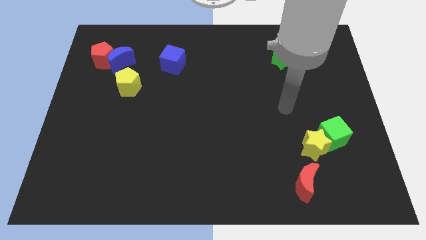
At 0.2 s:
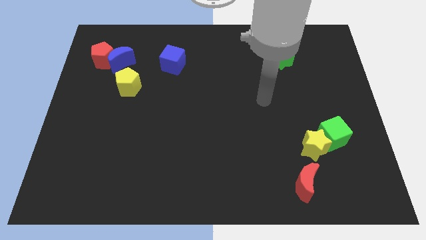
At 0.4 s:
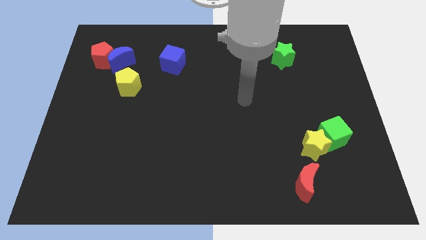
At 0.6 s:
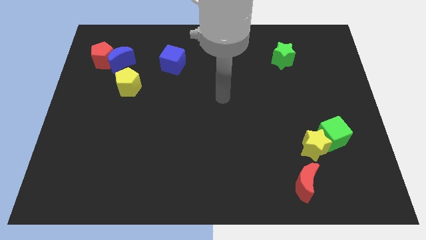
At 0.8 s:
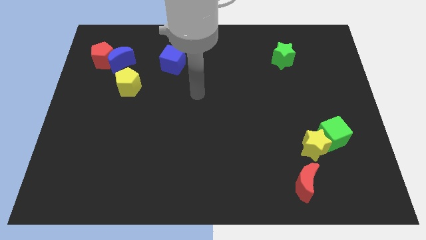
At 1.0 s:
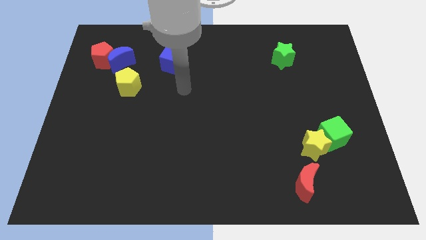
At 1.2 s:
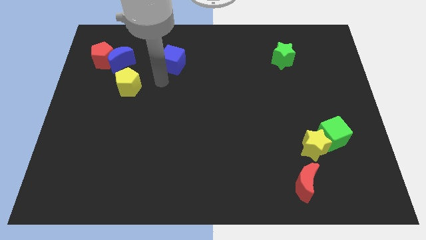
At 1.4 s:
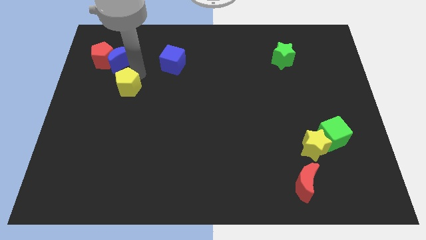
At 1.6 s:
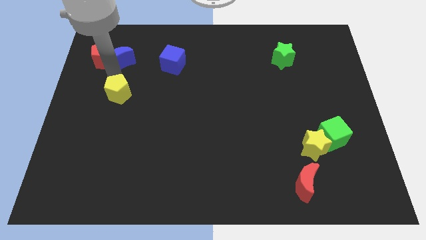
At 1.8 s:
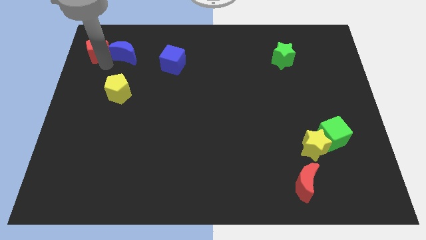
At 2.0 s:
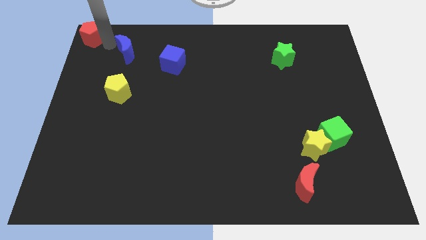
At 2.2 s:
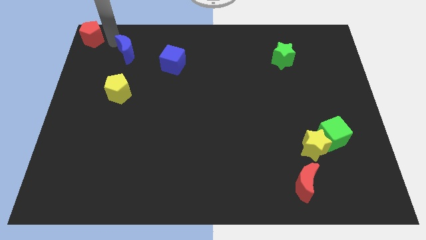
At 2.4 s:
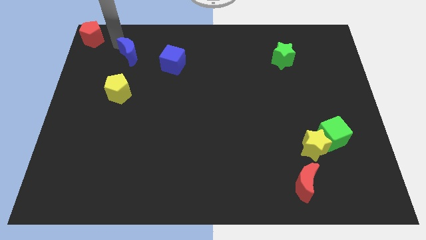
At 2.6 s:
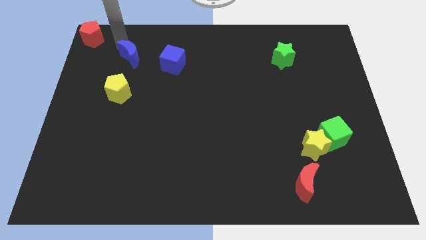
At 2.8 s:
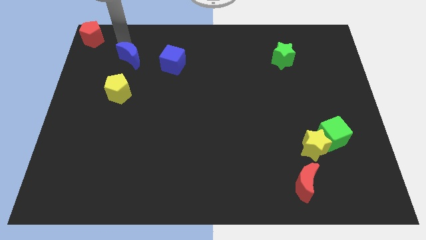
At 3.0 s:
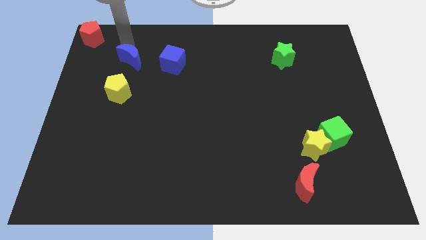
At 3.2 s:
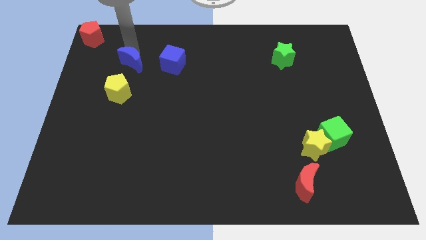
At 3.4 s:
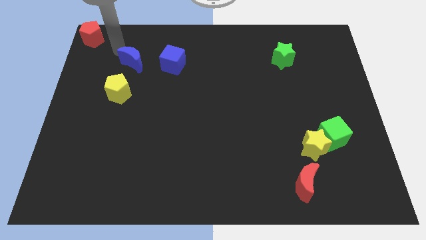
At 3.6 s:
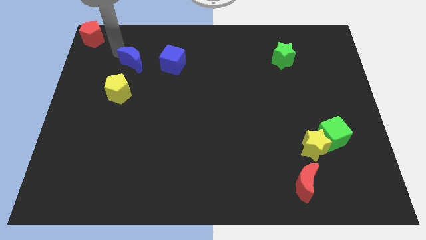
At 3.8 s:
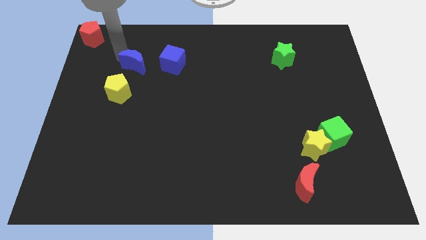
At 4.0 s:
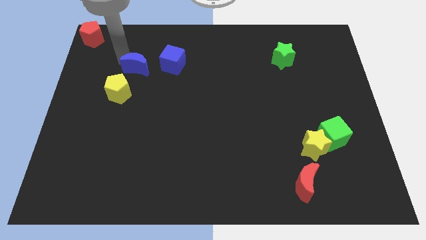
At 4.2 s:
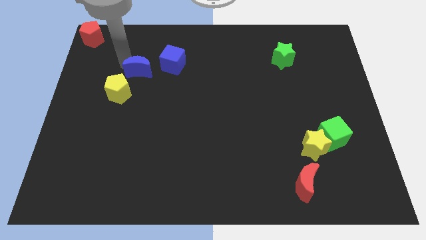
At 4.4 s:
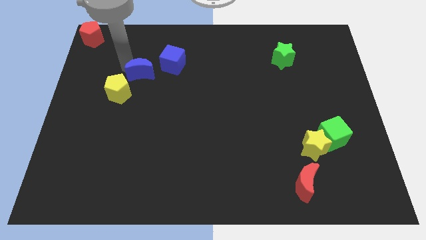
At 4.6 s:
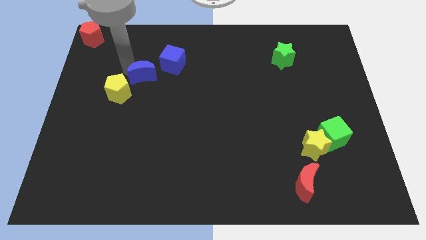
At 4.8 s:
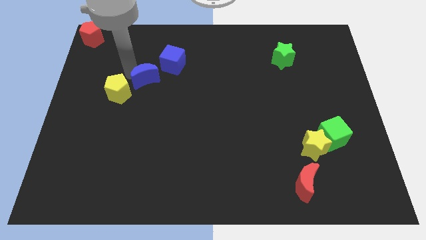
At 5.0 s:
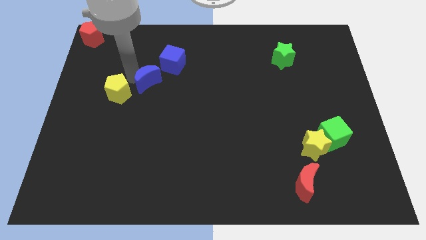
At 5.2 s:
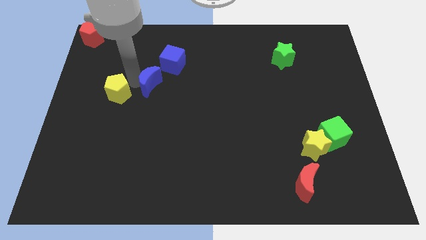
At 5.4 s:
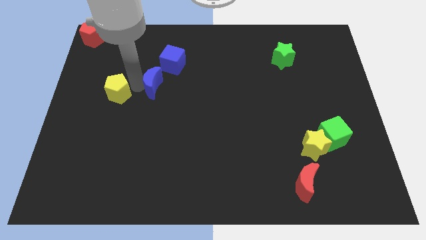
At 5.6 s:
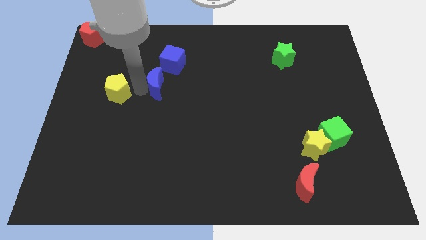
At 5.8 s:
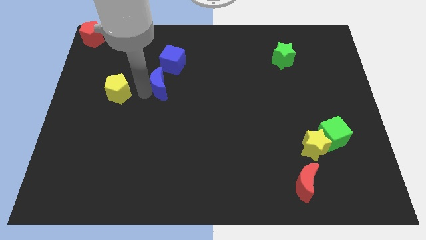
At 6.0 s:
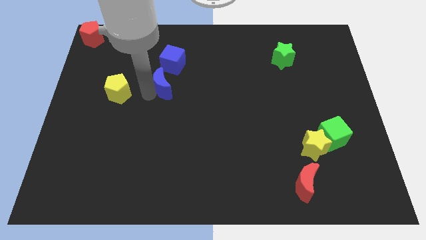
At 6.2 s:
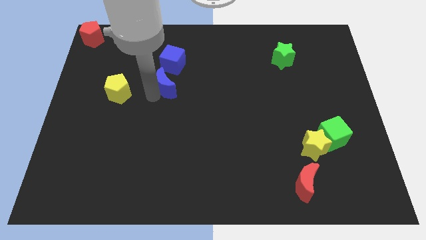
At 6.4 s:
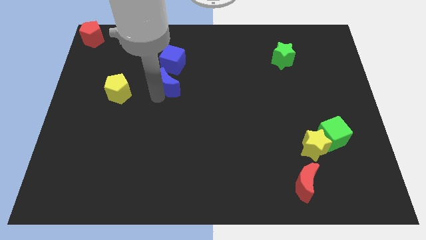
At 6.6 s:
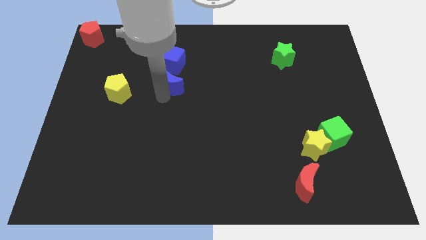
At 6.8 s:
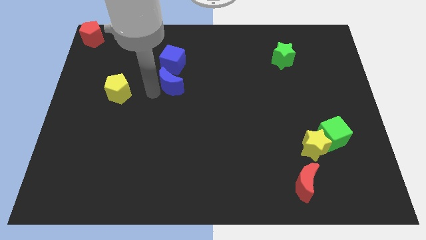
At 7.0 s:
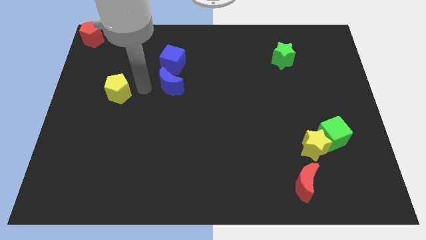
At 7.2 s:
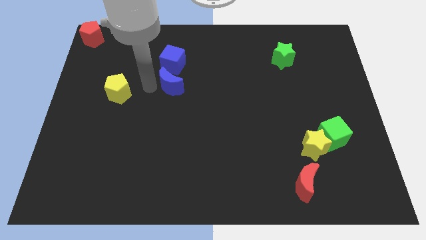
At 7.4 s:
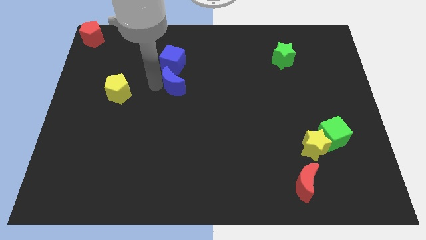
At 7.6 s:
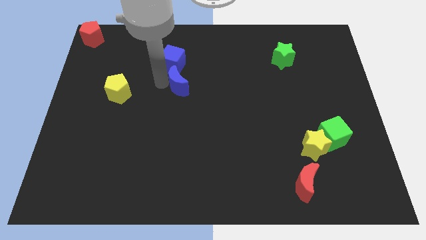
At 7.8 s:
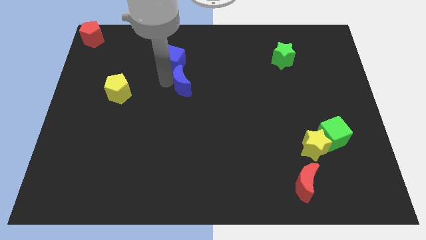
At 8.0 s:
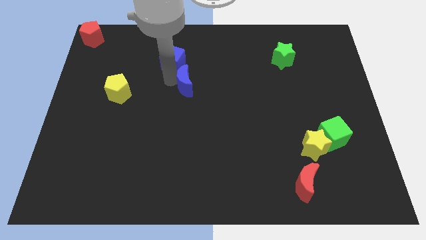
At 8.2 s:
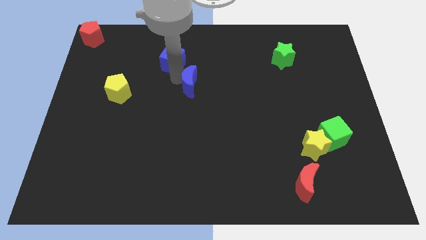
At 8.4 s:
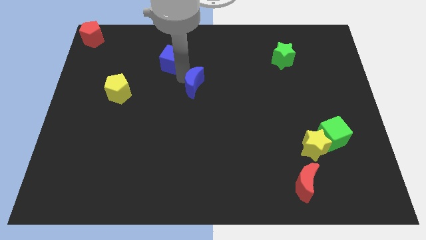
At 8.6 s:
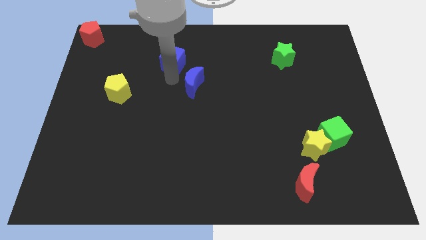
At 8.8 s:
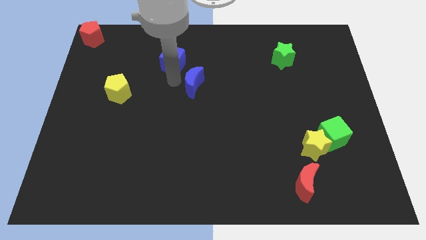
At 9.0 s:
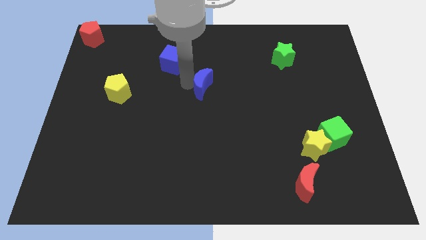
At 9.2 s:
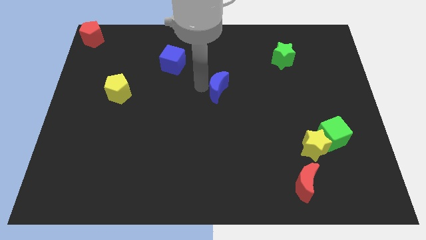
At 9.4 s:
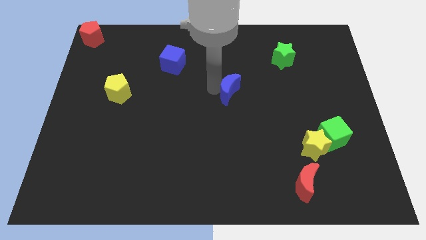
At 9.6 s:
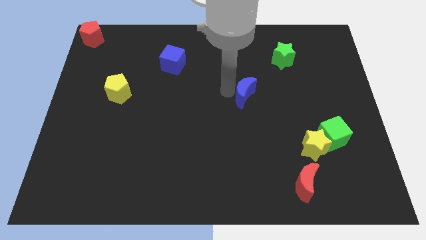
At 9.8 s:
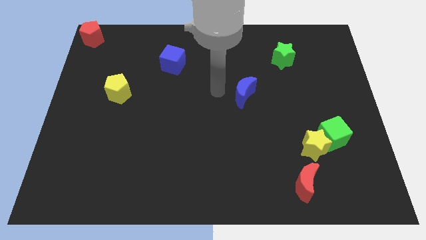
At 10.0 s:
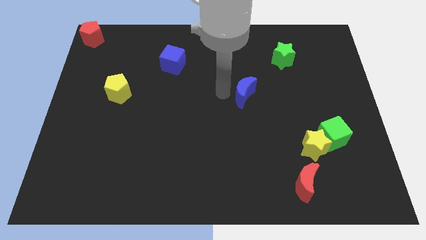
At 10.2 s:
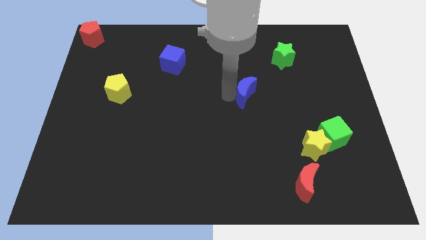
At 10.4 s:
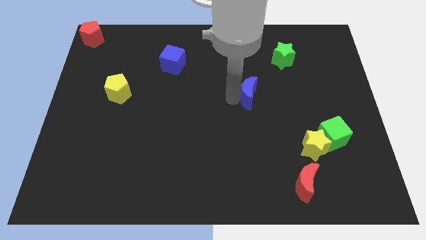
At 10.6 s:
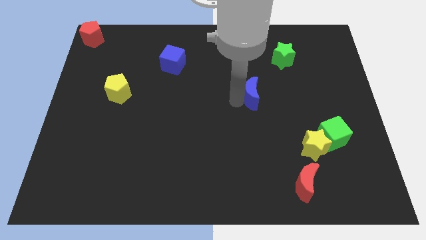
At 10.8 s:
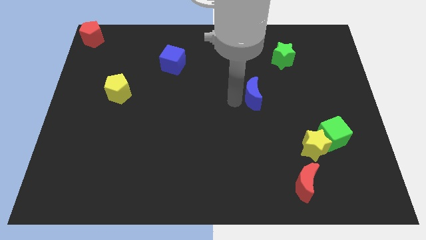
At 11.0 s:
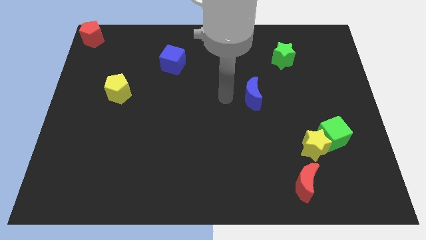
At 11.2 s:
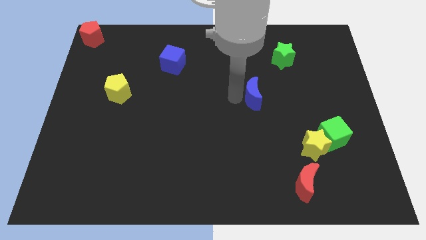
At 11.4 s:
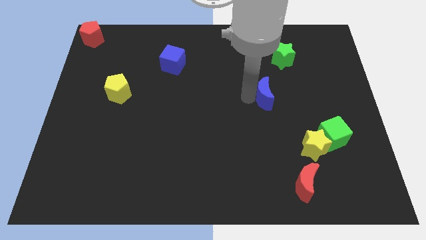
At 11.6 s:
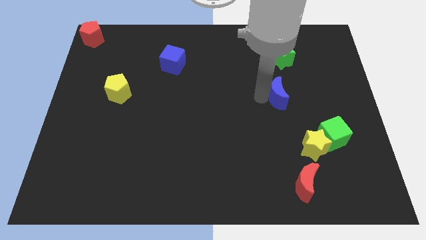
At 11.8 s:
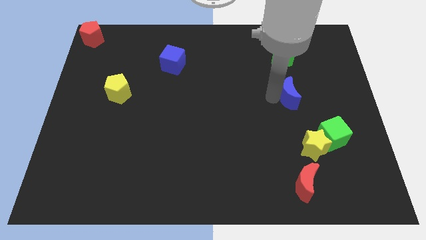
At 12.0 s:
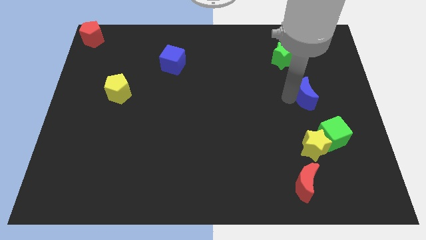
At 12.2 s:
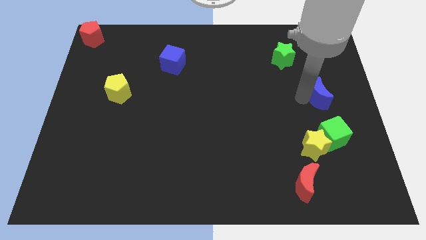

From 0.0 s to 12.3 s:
slide the blue moon to the right side of the board
